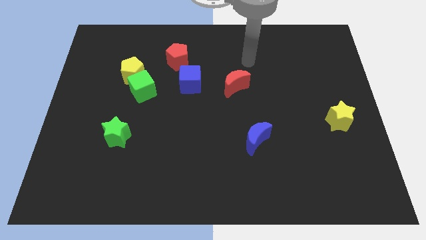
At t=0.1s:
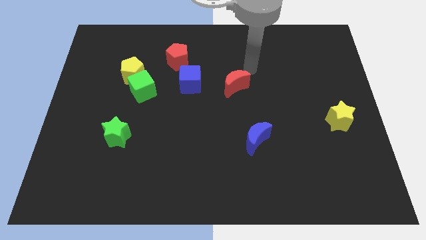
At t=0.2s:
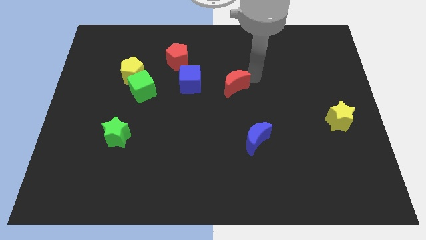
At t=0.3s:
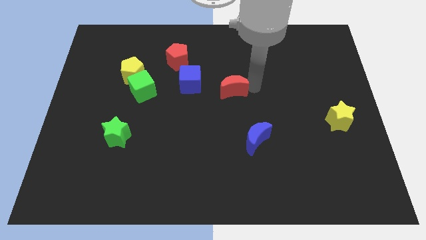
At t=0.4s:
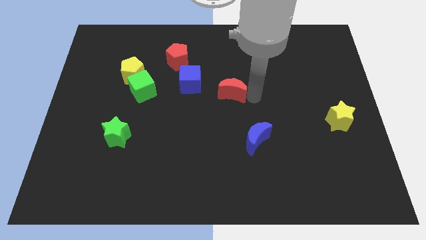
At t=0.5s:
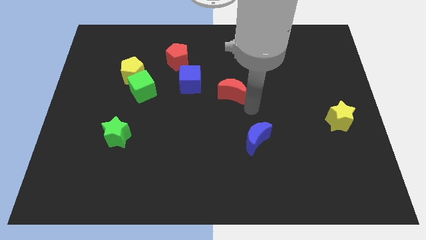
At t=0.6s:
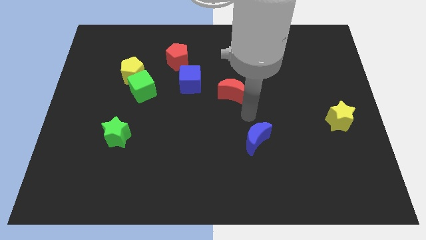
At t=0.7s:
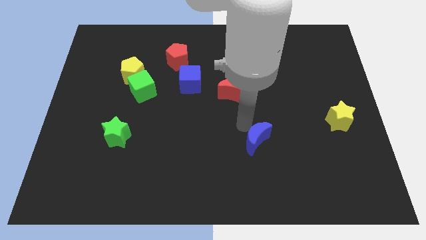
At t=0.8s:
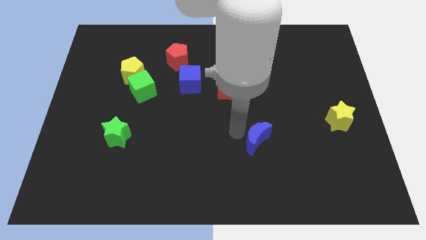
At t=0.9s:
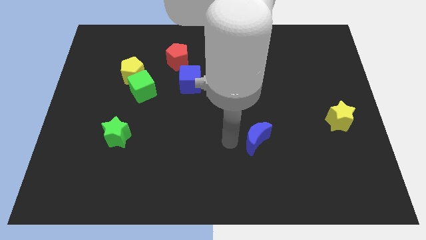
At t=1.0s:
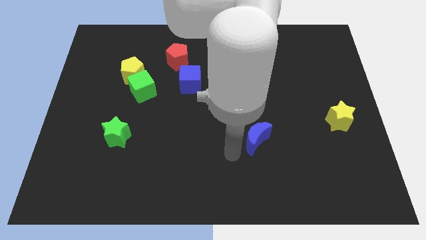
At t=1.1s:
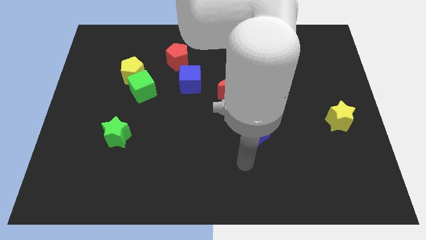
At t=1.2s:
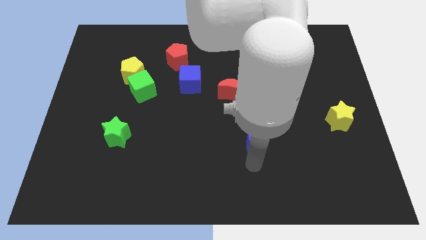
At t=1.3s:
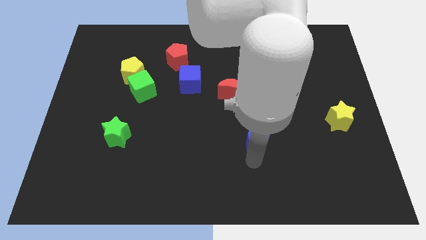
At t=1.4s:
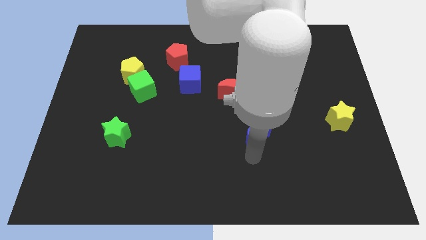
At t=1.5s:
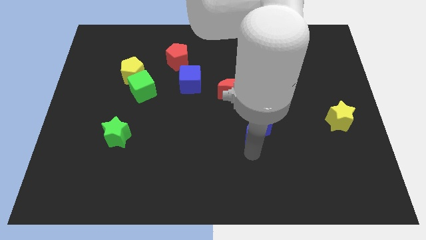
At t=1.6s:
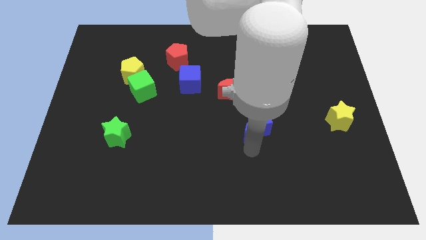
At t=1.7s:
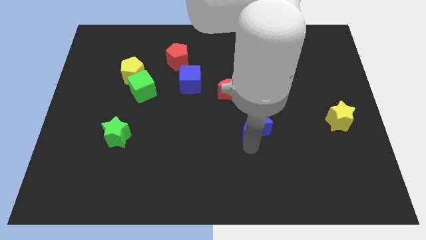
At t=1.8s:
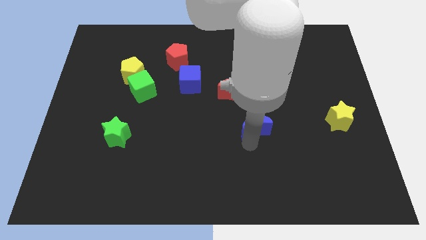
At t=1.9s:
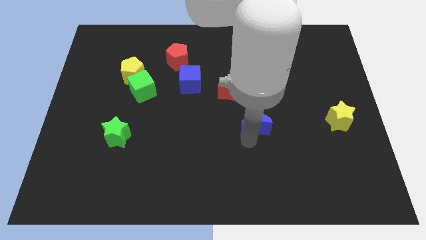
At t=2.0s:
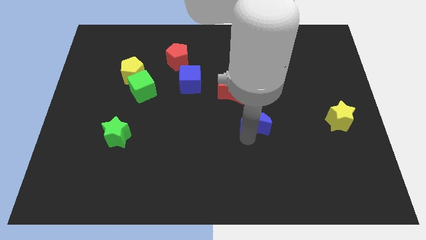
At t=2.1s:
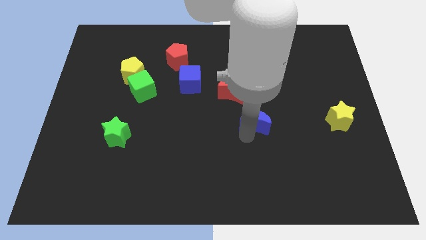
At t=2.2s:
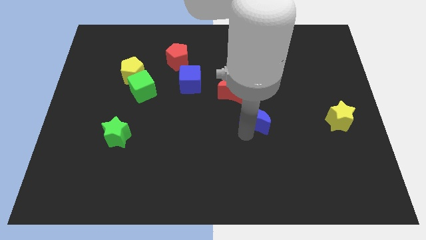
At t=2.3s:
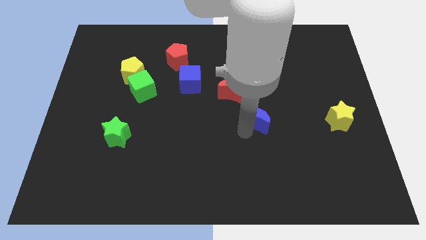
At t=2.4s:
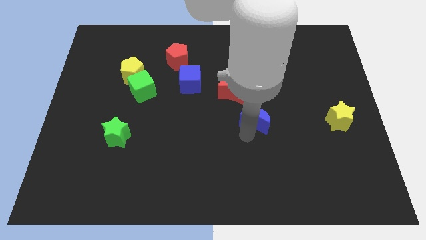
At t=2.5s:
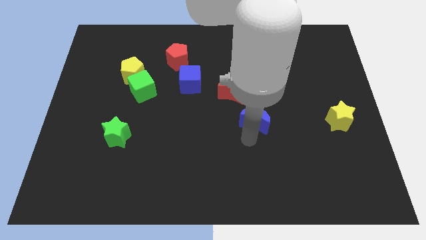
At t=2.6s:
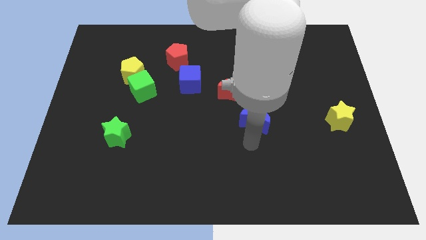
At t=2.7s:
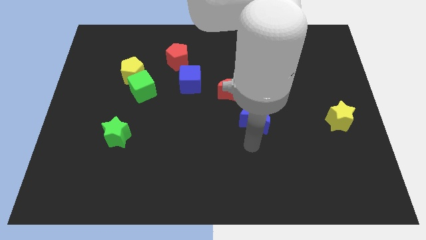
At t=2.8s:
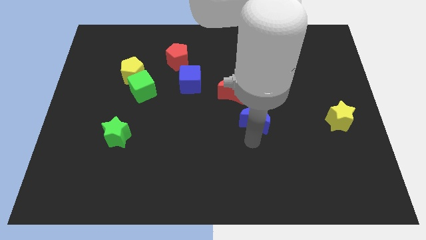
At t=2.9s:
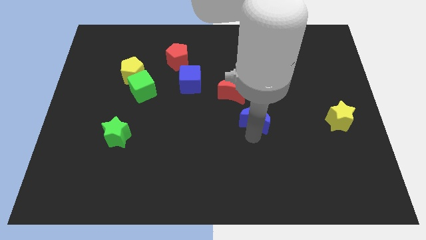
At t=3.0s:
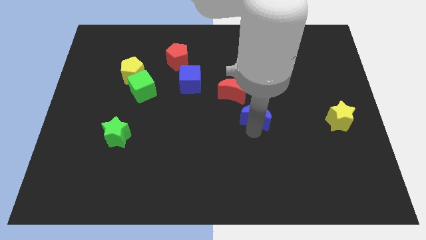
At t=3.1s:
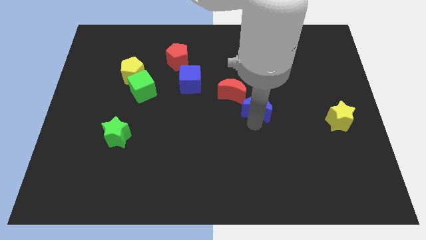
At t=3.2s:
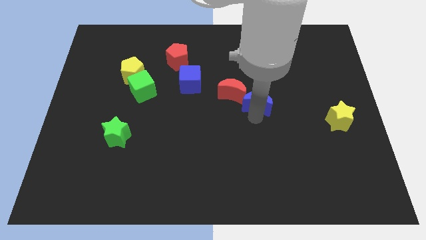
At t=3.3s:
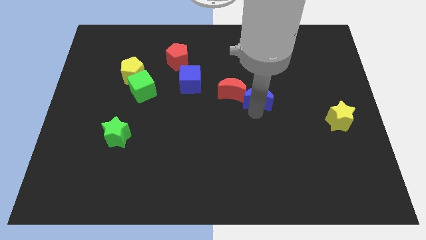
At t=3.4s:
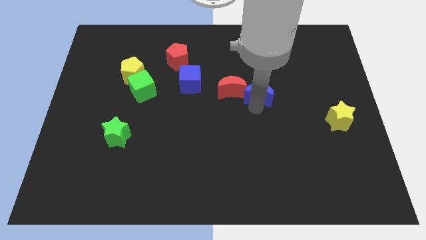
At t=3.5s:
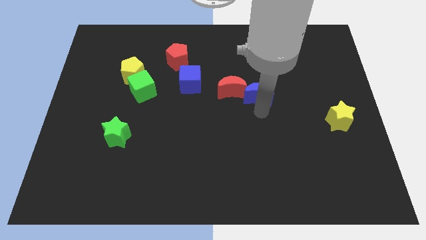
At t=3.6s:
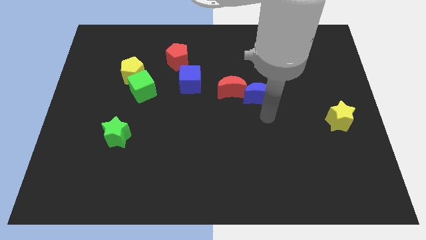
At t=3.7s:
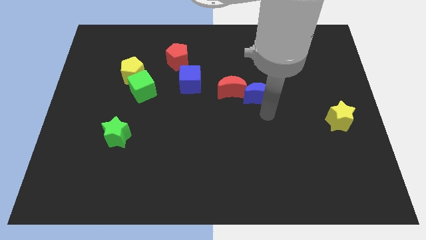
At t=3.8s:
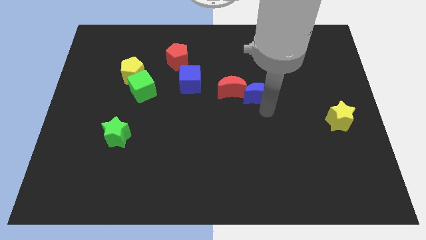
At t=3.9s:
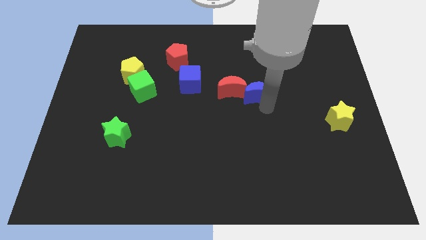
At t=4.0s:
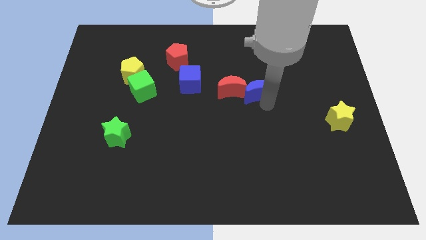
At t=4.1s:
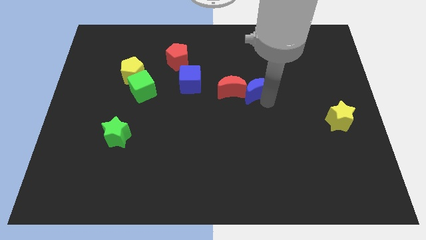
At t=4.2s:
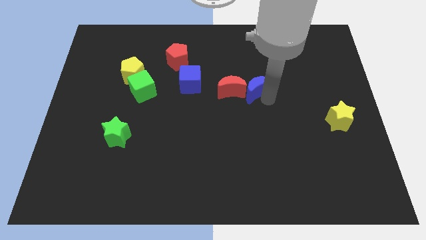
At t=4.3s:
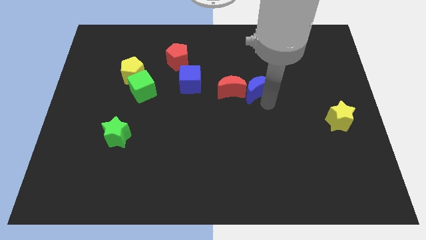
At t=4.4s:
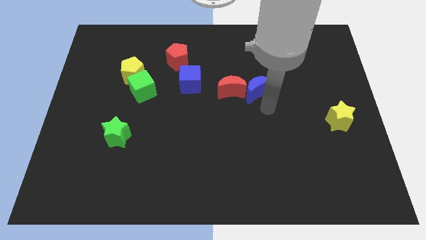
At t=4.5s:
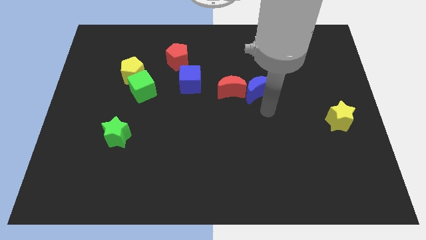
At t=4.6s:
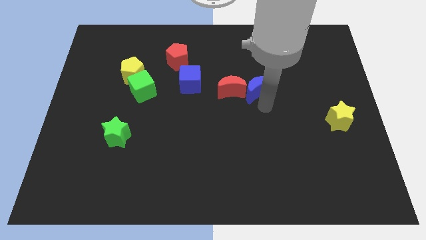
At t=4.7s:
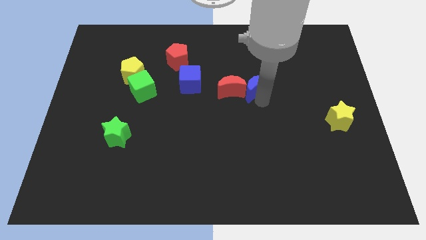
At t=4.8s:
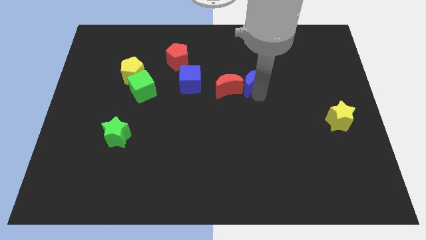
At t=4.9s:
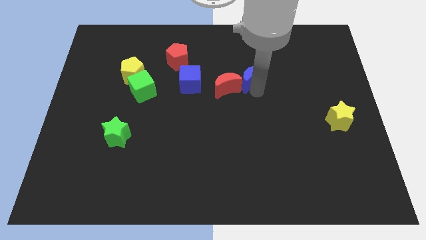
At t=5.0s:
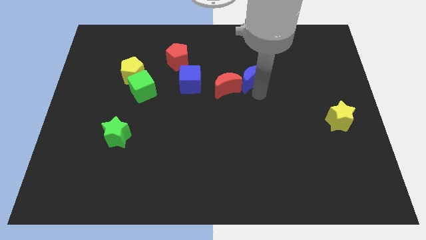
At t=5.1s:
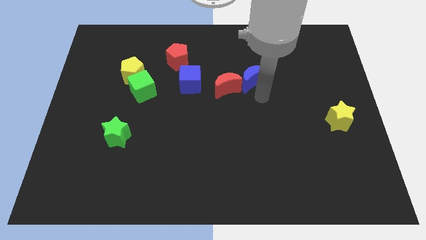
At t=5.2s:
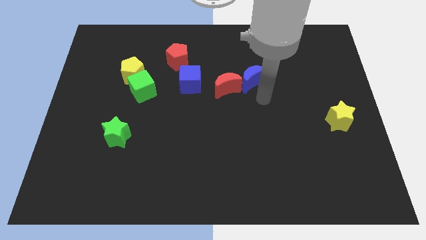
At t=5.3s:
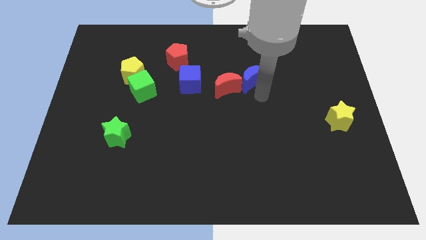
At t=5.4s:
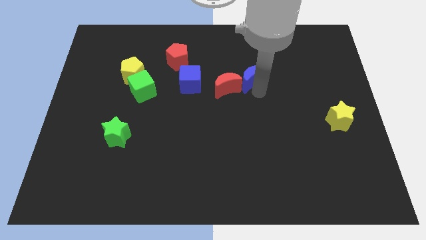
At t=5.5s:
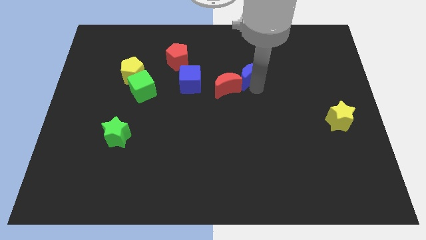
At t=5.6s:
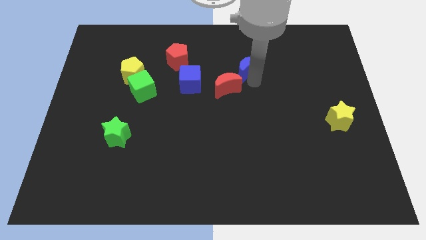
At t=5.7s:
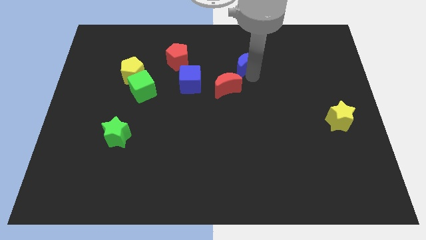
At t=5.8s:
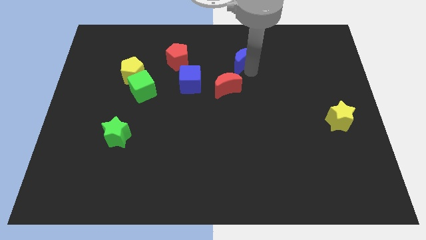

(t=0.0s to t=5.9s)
push the blue moon to the top side of the red moon

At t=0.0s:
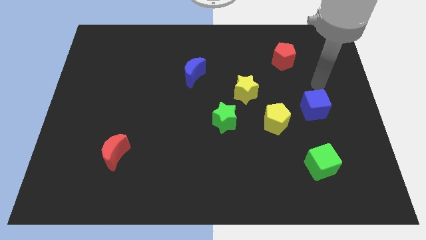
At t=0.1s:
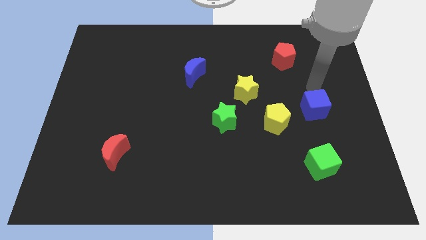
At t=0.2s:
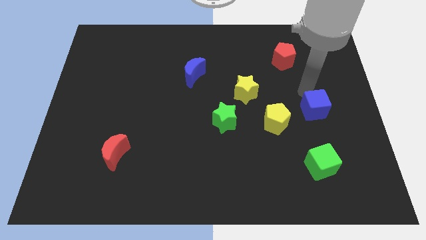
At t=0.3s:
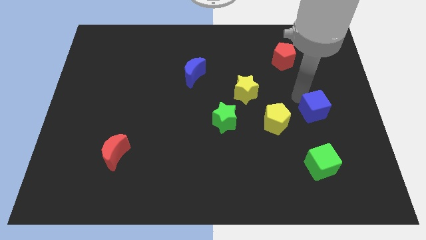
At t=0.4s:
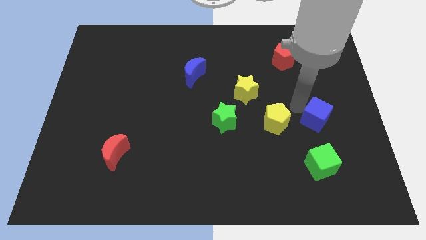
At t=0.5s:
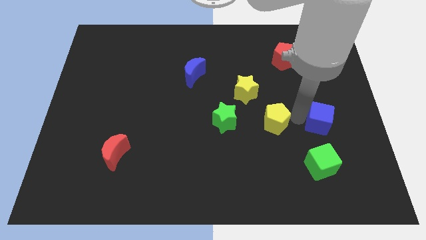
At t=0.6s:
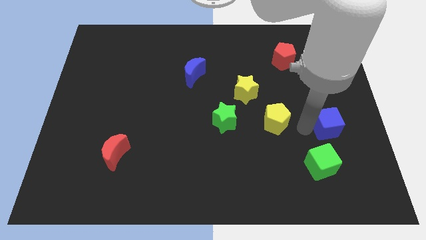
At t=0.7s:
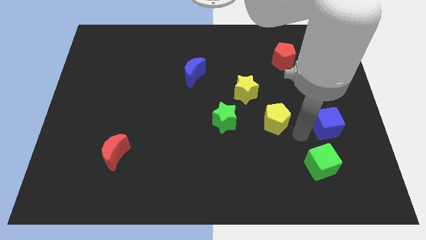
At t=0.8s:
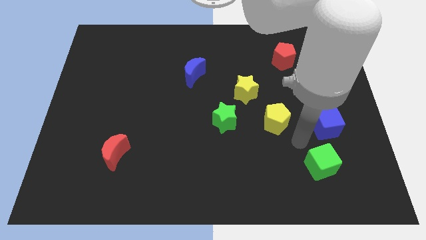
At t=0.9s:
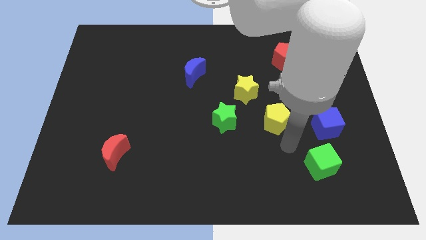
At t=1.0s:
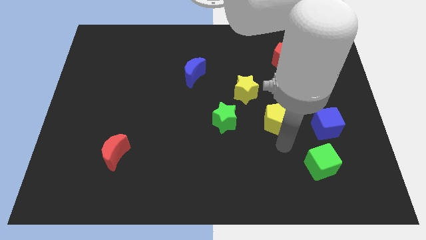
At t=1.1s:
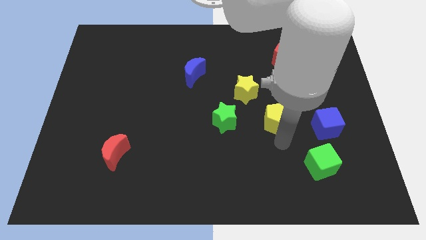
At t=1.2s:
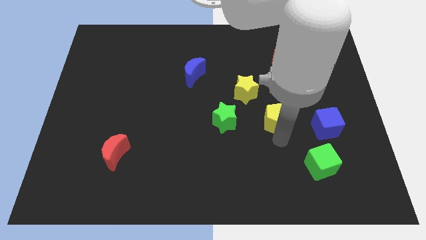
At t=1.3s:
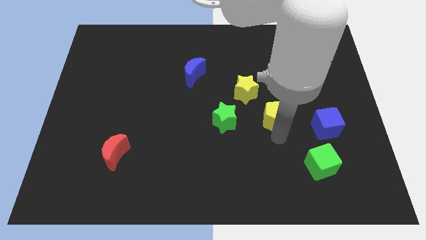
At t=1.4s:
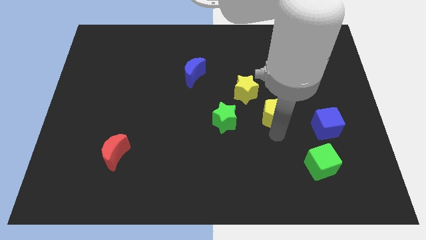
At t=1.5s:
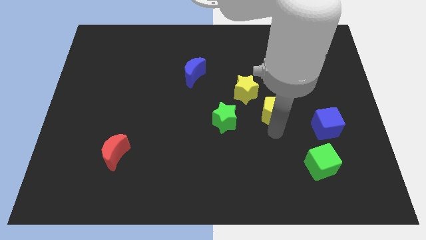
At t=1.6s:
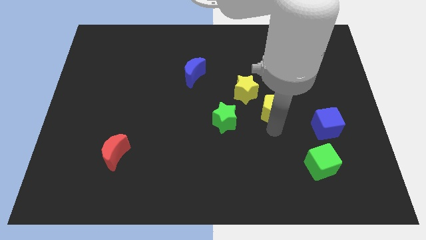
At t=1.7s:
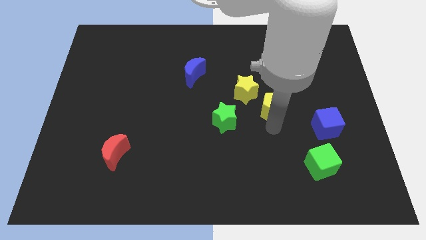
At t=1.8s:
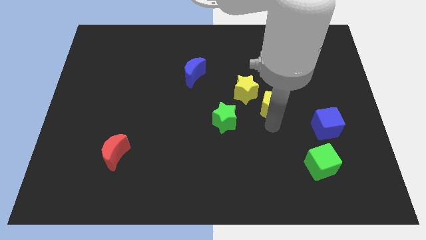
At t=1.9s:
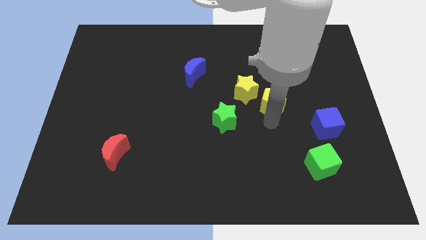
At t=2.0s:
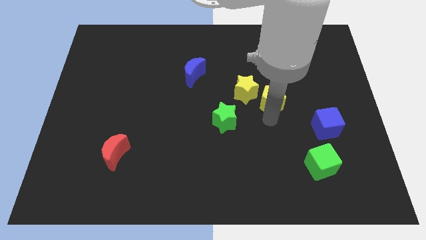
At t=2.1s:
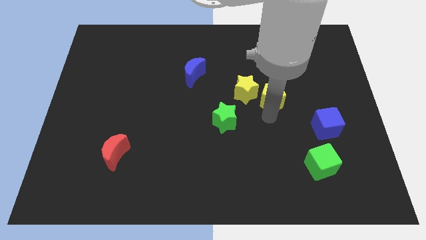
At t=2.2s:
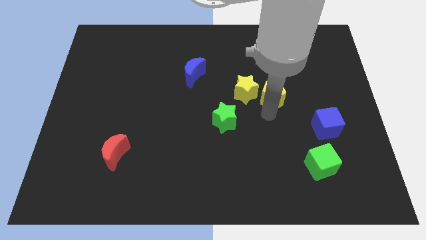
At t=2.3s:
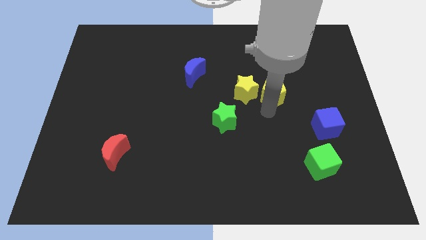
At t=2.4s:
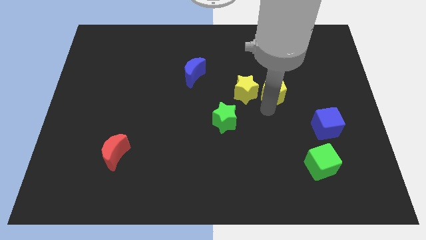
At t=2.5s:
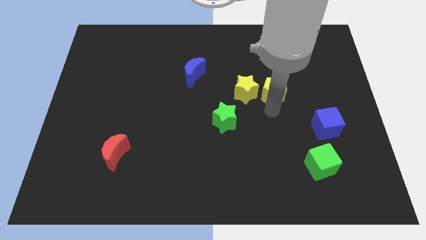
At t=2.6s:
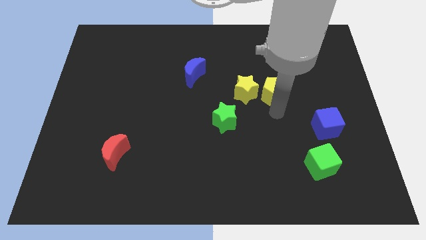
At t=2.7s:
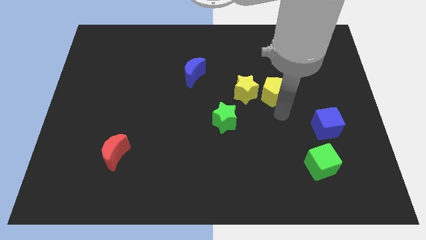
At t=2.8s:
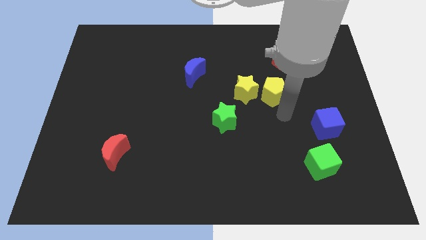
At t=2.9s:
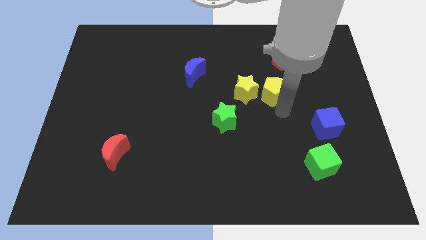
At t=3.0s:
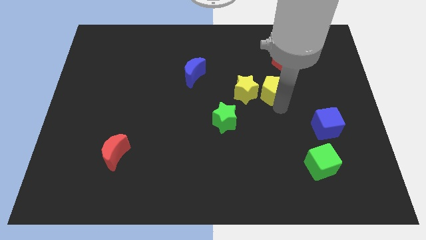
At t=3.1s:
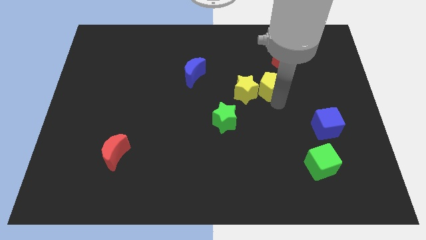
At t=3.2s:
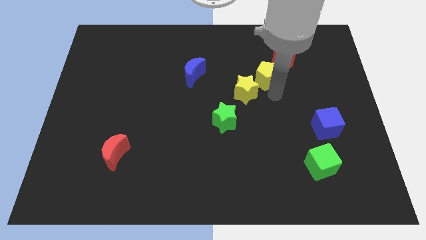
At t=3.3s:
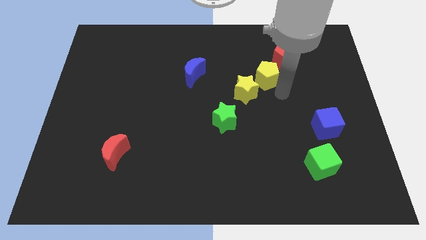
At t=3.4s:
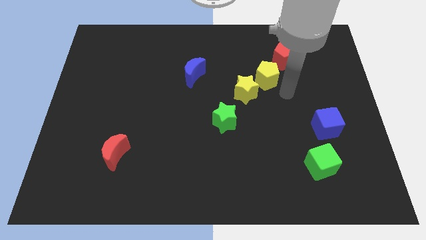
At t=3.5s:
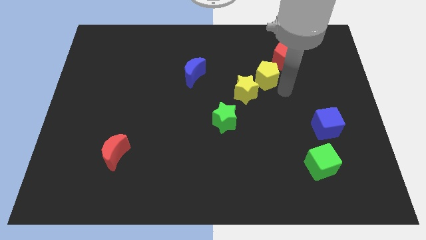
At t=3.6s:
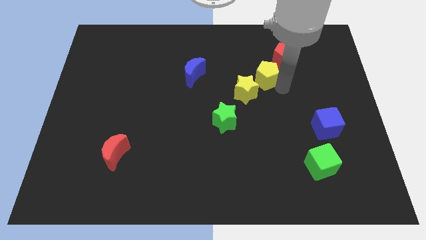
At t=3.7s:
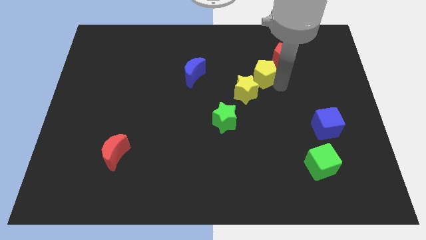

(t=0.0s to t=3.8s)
push the yellow pentagon to the top of the yellow star
